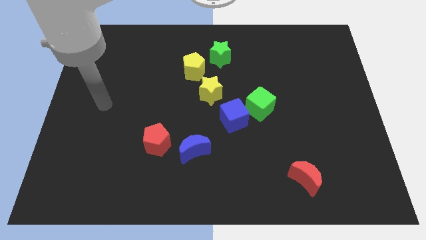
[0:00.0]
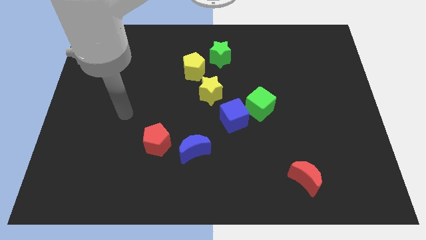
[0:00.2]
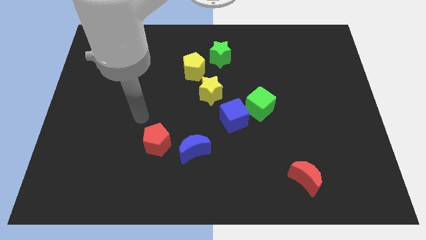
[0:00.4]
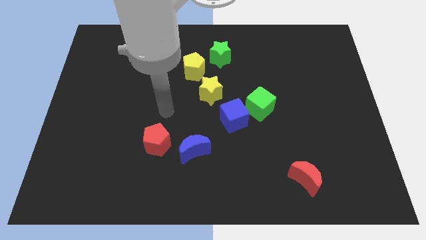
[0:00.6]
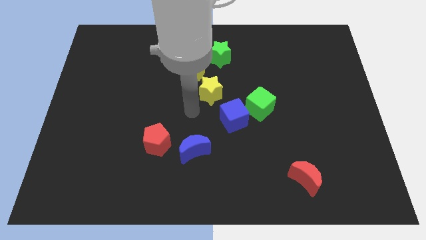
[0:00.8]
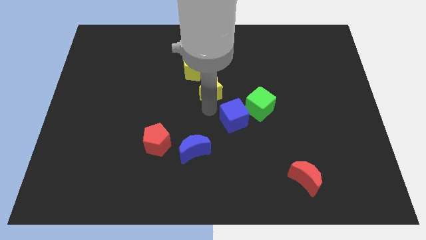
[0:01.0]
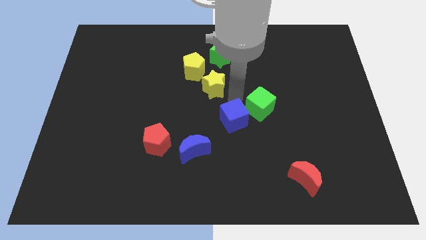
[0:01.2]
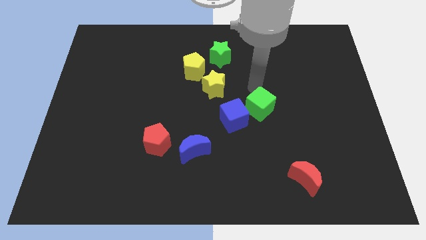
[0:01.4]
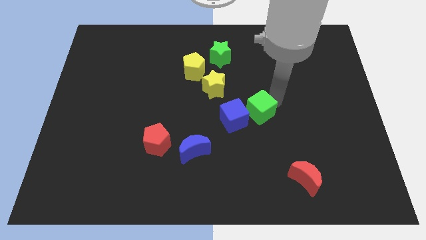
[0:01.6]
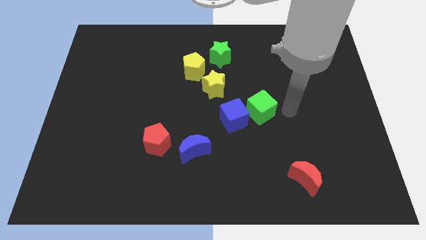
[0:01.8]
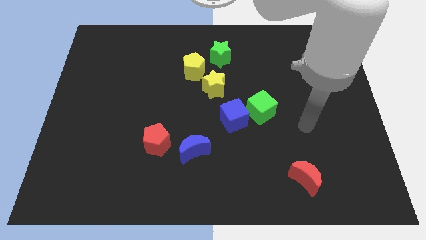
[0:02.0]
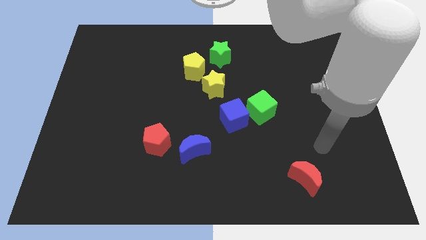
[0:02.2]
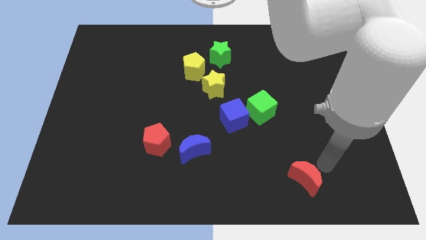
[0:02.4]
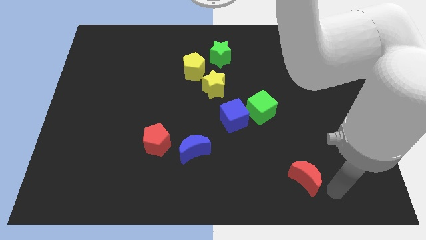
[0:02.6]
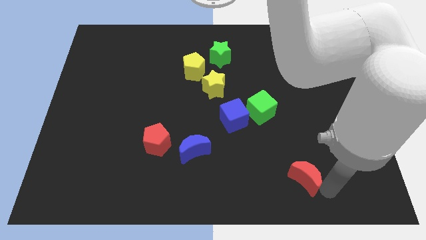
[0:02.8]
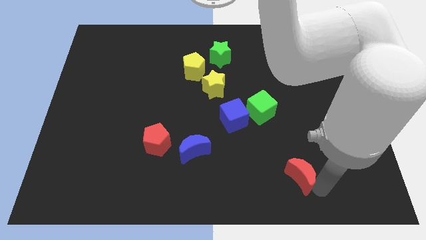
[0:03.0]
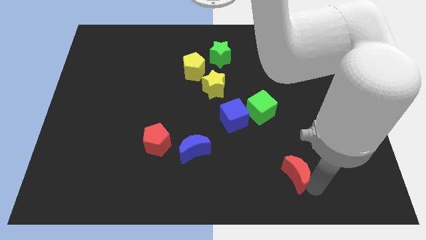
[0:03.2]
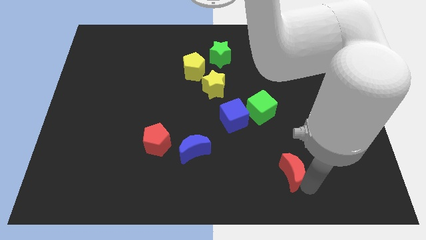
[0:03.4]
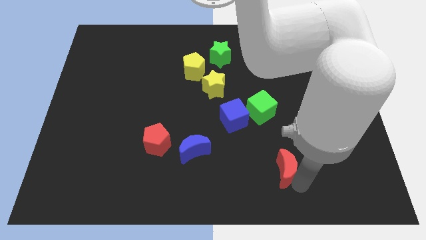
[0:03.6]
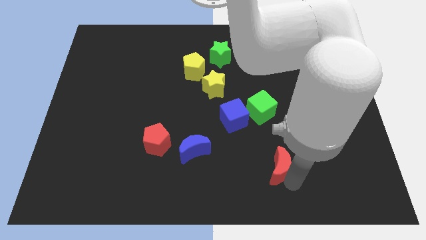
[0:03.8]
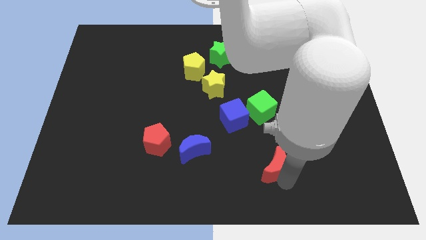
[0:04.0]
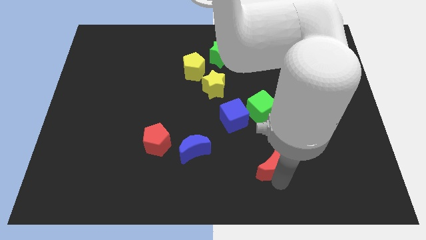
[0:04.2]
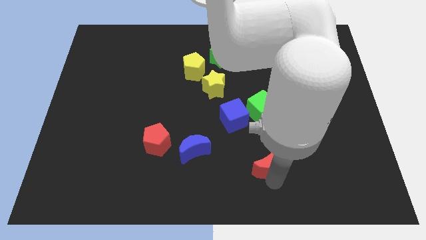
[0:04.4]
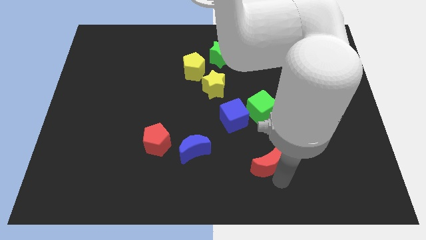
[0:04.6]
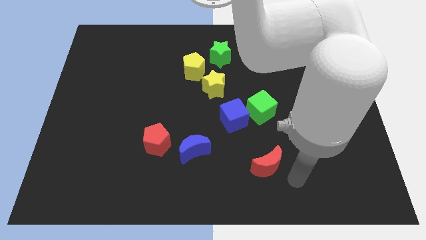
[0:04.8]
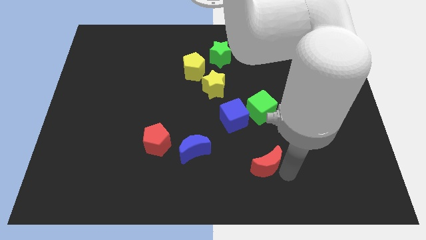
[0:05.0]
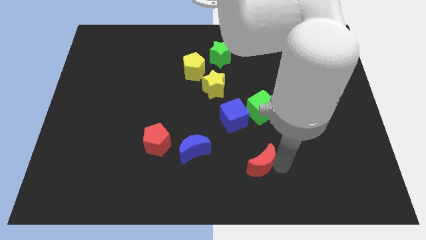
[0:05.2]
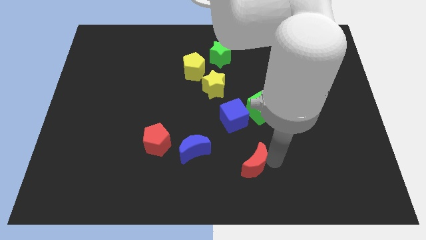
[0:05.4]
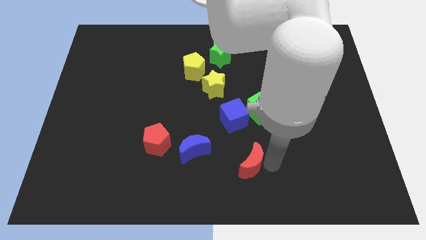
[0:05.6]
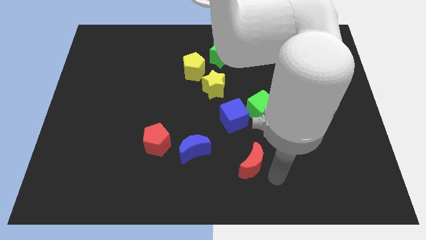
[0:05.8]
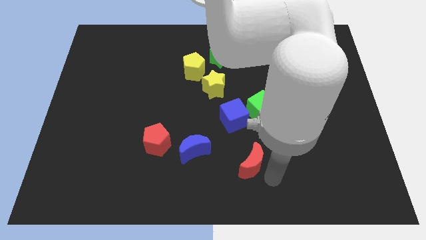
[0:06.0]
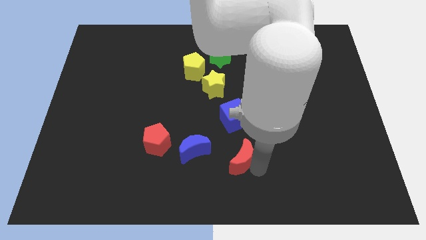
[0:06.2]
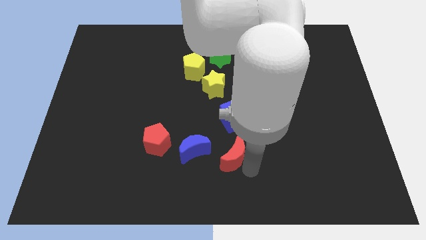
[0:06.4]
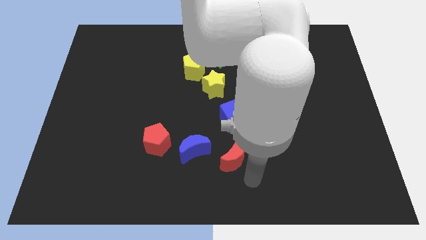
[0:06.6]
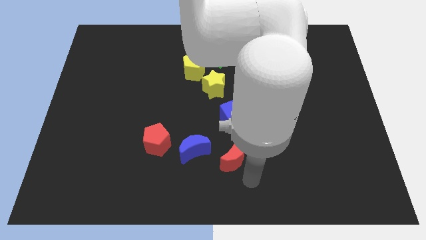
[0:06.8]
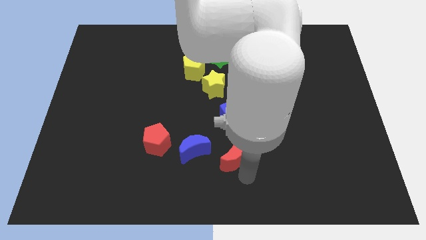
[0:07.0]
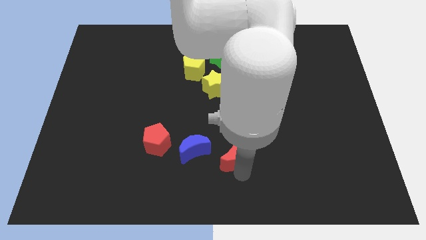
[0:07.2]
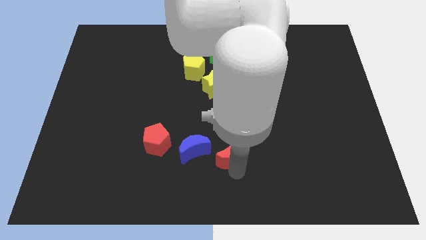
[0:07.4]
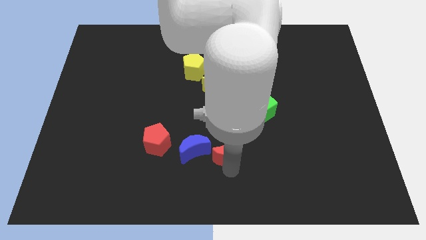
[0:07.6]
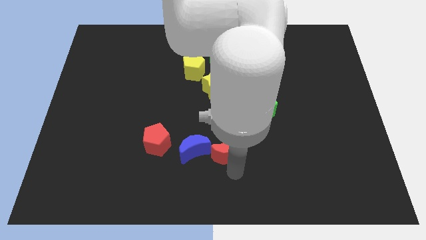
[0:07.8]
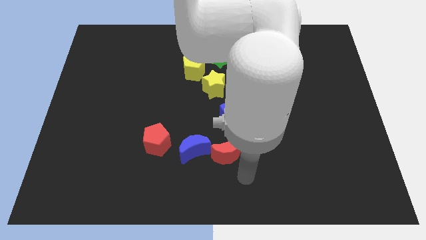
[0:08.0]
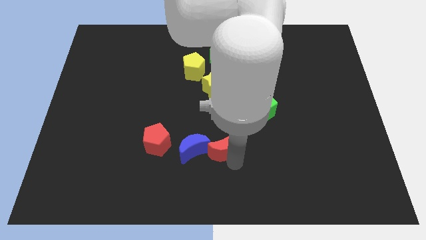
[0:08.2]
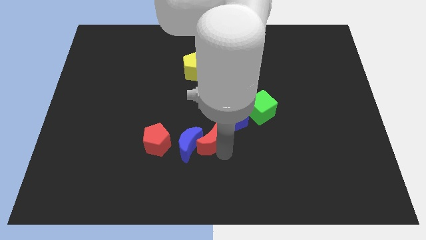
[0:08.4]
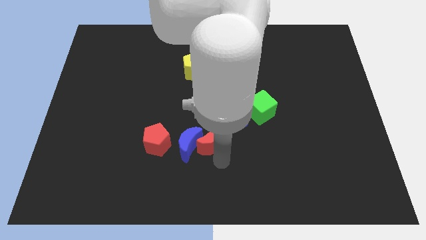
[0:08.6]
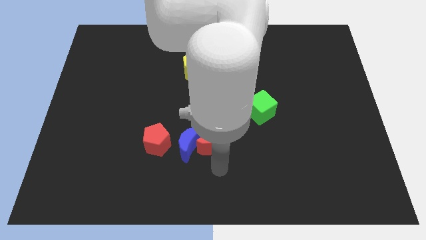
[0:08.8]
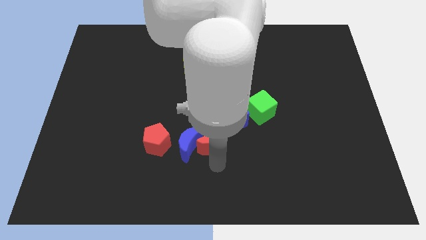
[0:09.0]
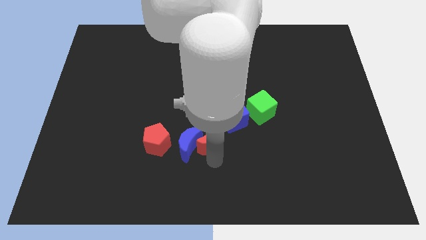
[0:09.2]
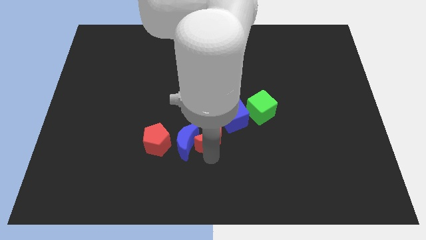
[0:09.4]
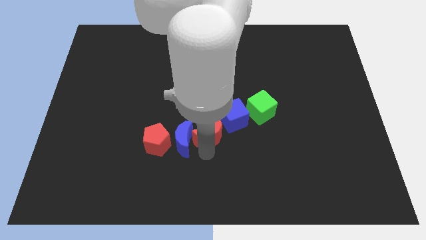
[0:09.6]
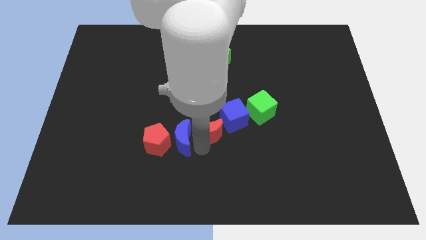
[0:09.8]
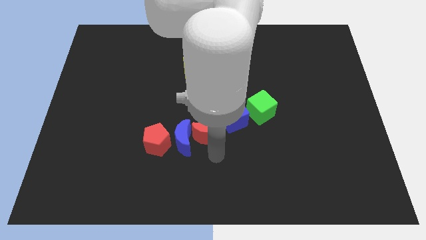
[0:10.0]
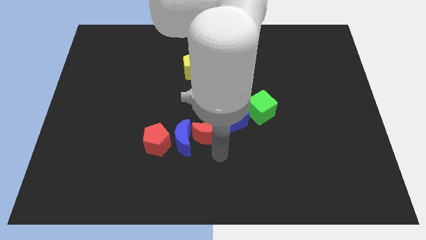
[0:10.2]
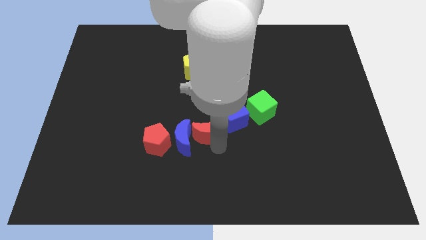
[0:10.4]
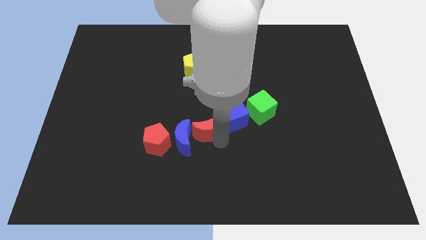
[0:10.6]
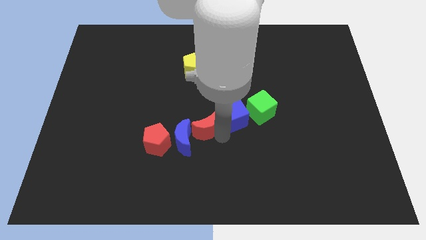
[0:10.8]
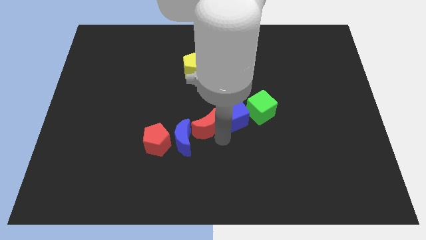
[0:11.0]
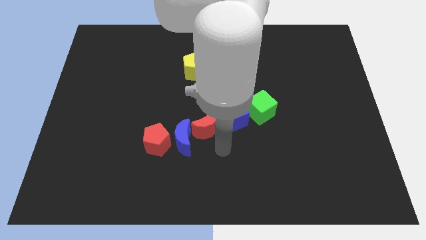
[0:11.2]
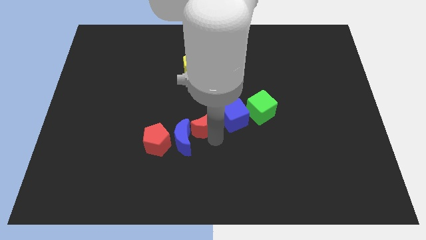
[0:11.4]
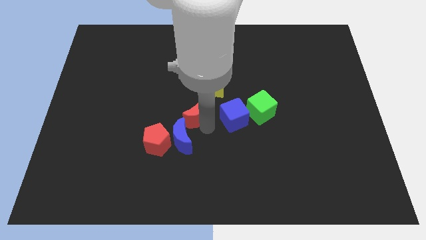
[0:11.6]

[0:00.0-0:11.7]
put the red moon to the bottom left of the yellow star

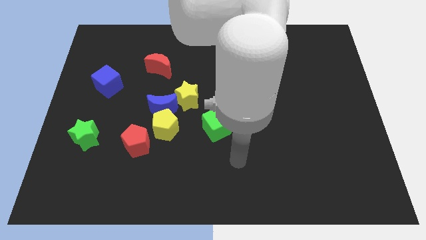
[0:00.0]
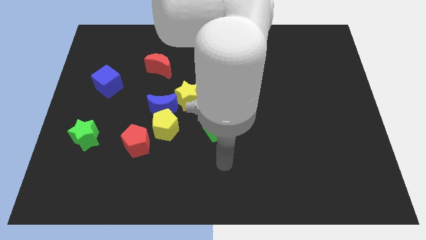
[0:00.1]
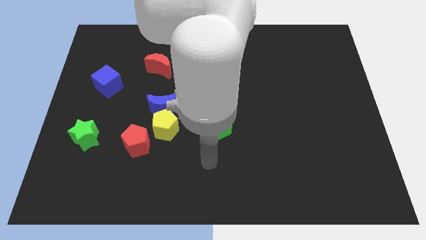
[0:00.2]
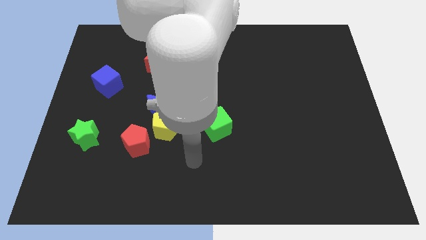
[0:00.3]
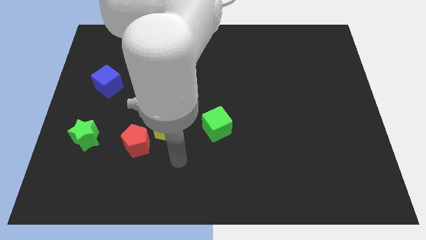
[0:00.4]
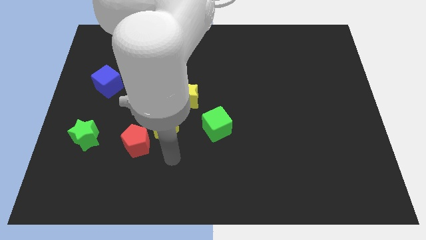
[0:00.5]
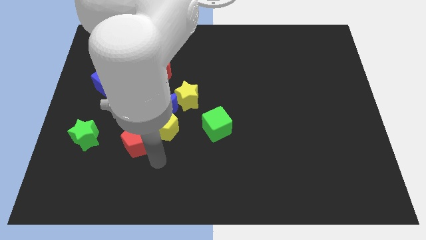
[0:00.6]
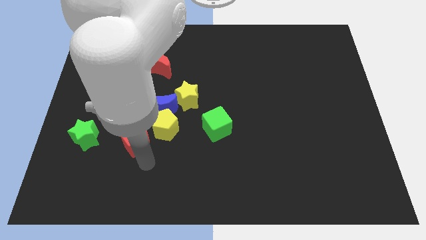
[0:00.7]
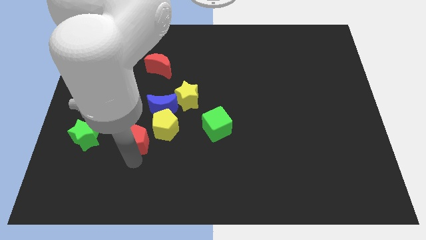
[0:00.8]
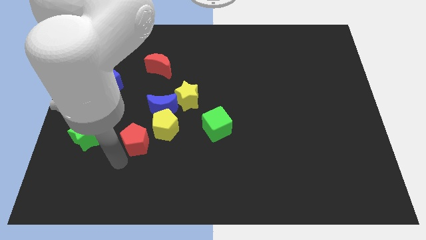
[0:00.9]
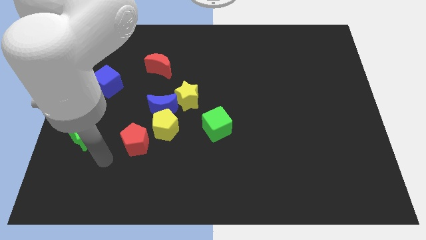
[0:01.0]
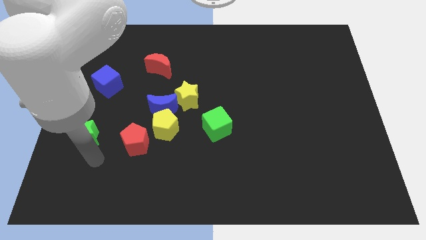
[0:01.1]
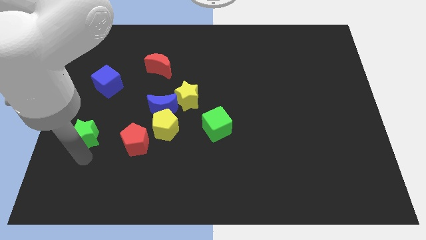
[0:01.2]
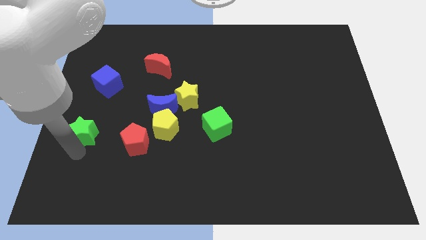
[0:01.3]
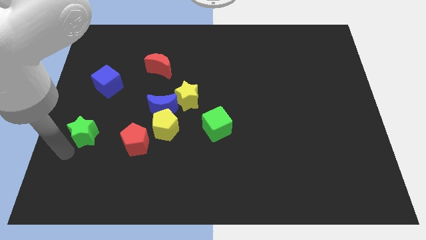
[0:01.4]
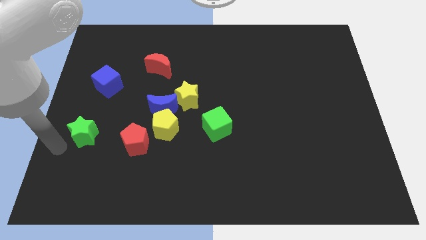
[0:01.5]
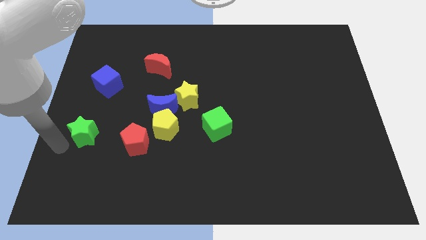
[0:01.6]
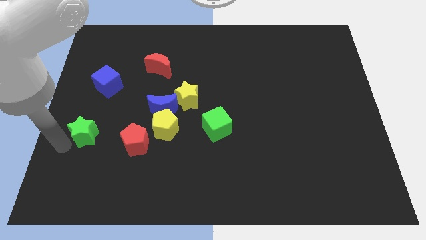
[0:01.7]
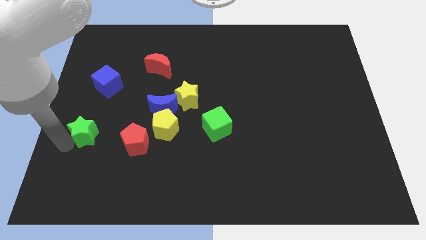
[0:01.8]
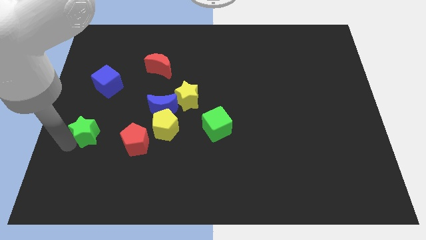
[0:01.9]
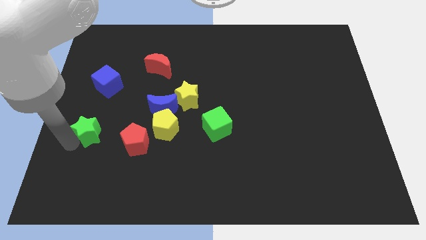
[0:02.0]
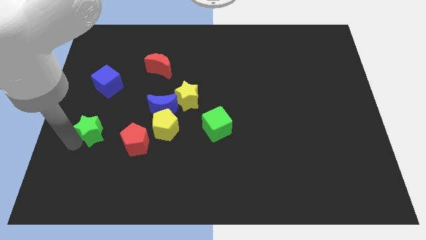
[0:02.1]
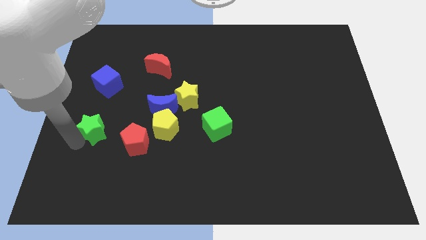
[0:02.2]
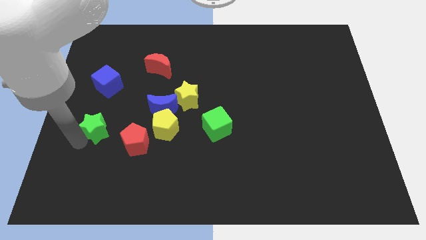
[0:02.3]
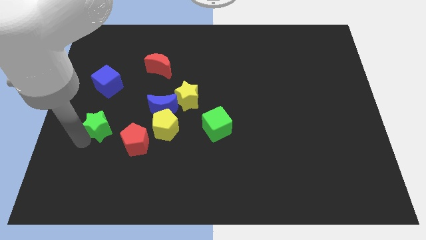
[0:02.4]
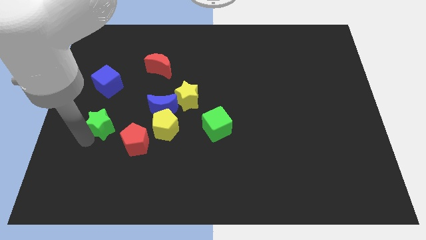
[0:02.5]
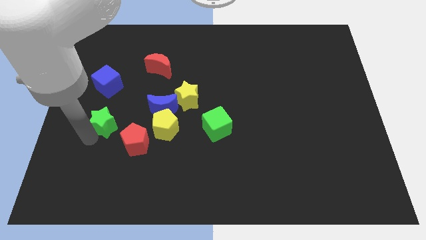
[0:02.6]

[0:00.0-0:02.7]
push the green star just left of the blue moon
